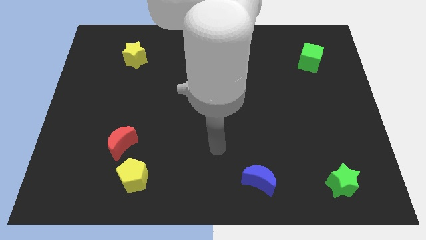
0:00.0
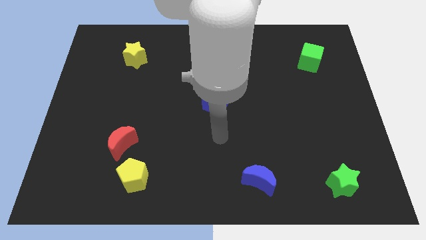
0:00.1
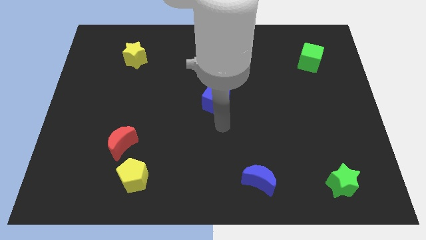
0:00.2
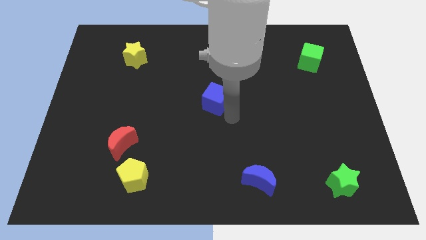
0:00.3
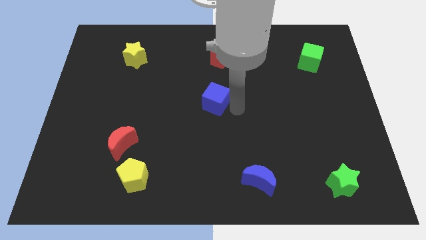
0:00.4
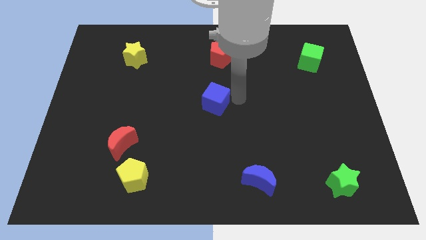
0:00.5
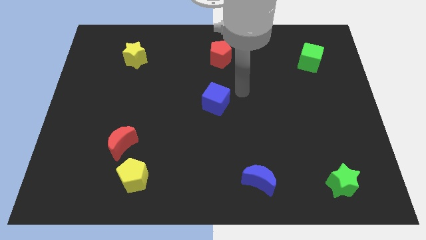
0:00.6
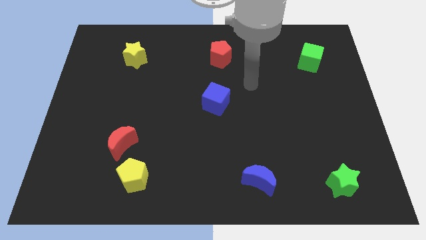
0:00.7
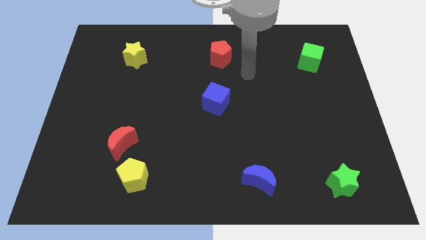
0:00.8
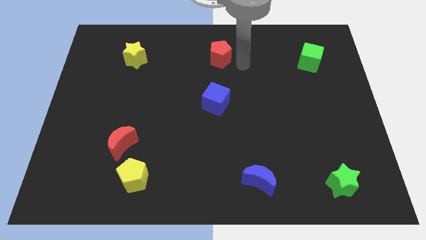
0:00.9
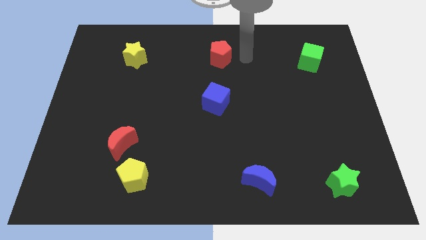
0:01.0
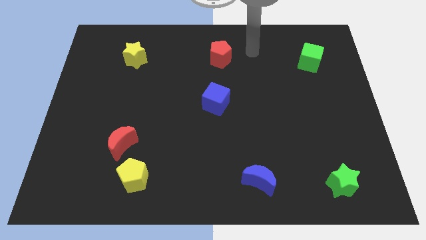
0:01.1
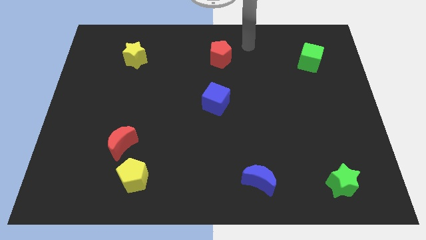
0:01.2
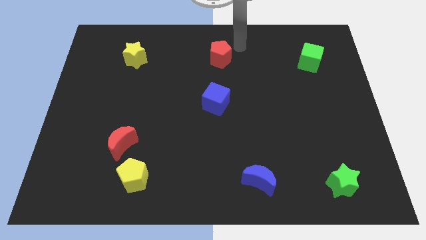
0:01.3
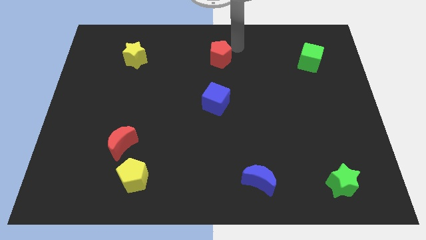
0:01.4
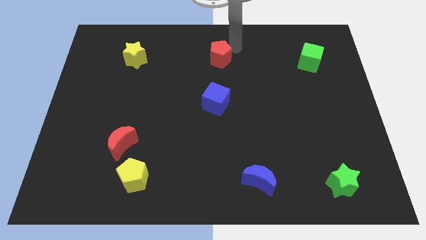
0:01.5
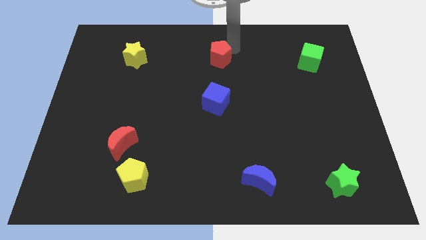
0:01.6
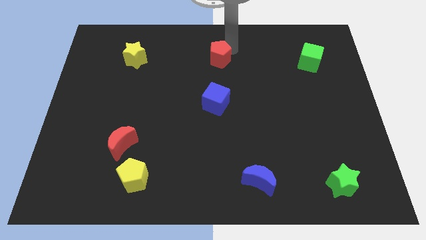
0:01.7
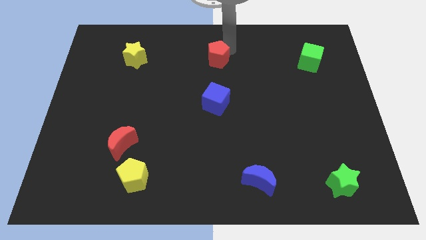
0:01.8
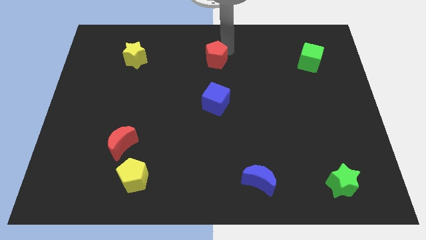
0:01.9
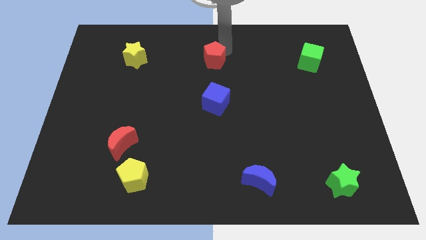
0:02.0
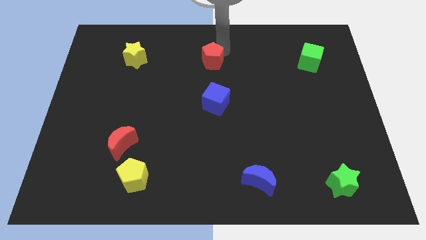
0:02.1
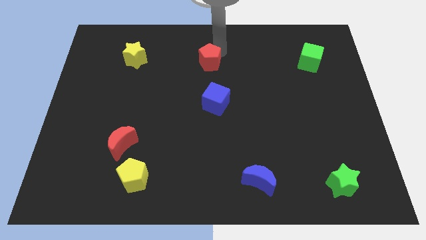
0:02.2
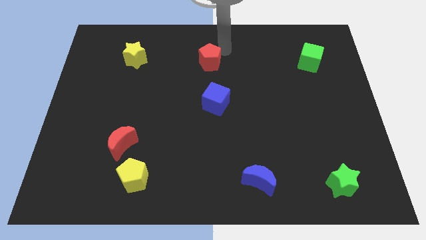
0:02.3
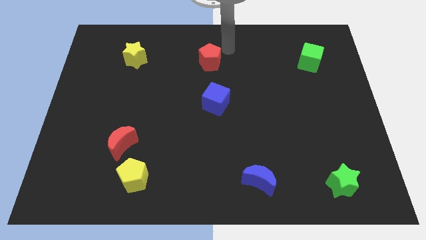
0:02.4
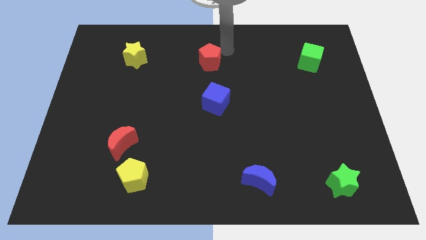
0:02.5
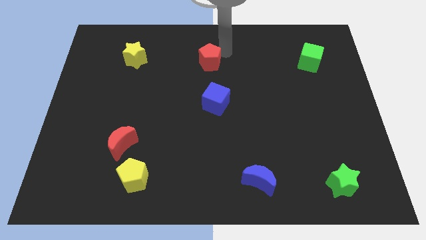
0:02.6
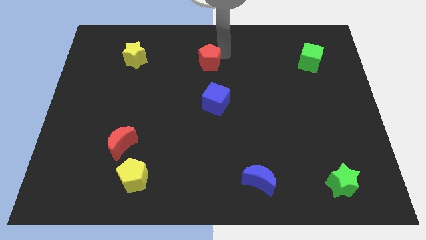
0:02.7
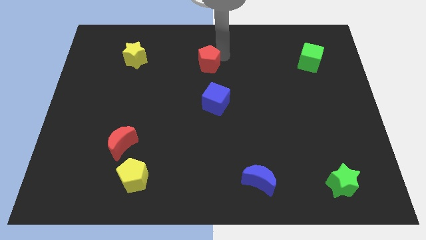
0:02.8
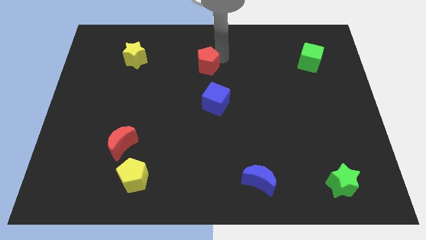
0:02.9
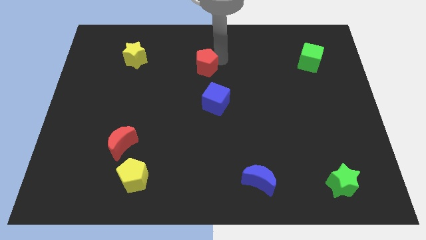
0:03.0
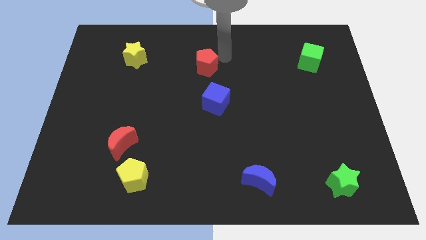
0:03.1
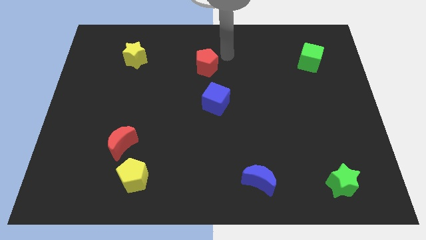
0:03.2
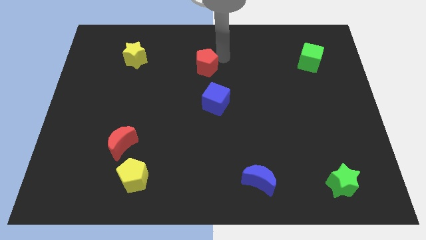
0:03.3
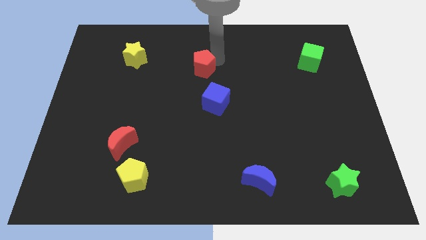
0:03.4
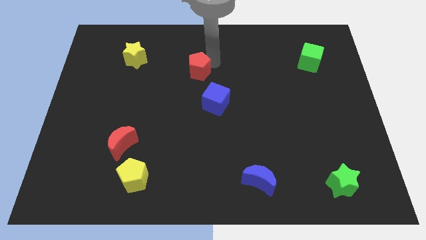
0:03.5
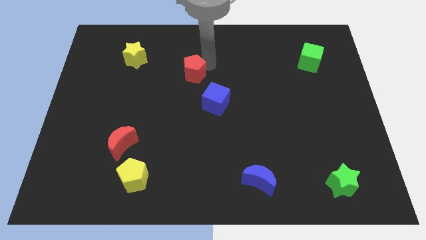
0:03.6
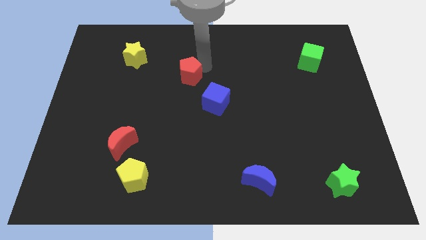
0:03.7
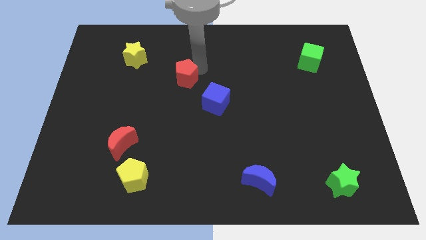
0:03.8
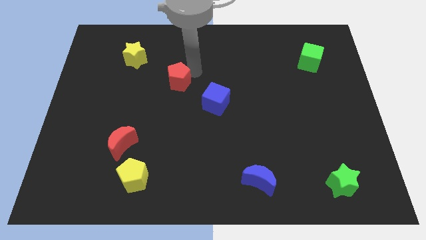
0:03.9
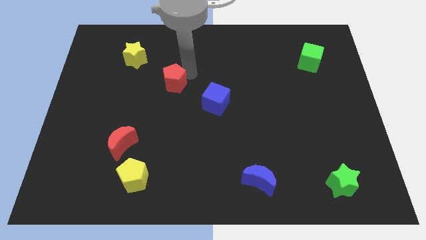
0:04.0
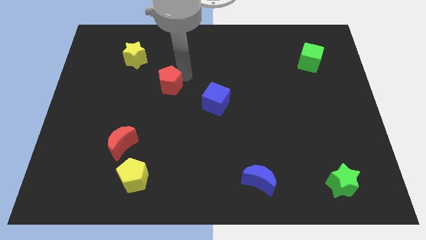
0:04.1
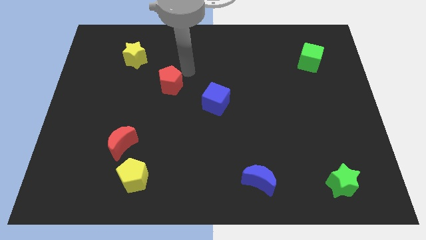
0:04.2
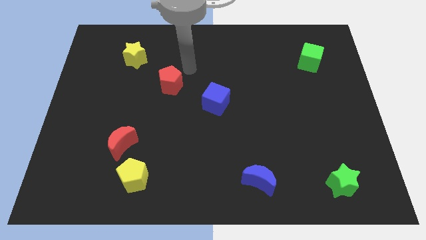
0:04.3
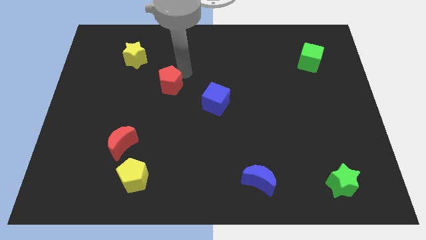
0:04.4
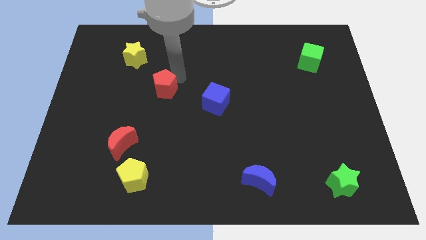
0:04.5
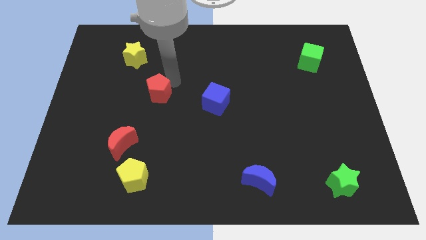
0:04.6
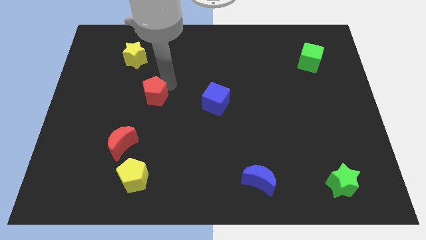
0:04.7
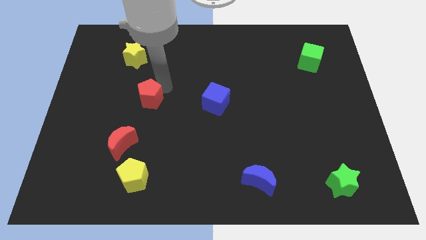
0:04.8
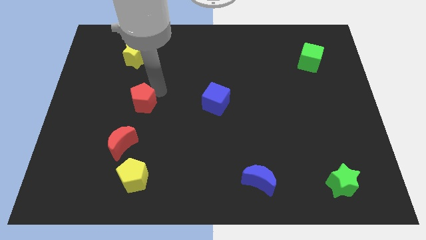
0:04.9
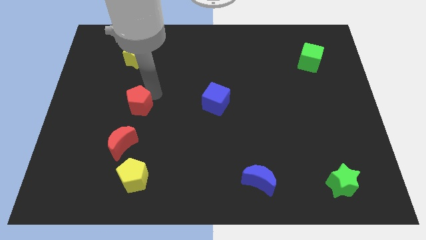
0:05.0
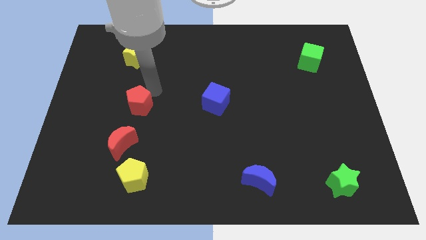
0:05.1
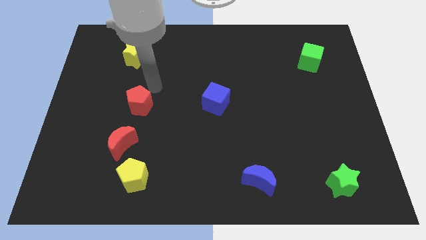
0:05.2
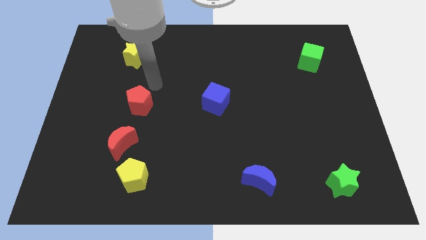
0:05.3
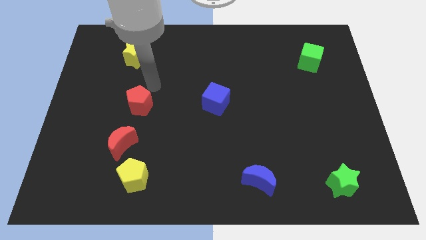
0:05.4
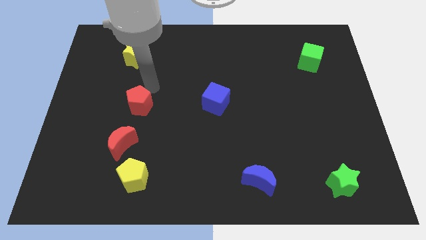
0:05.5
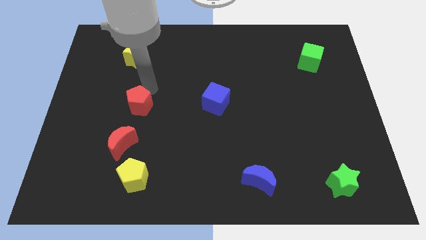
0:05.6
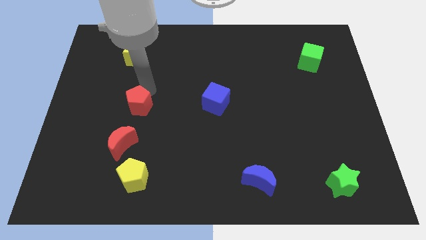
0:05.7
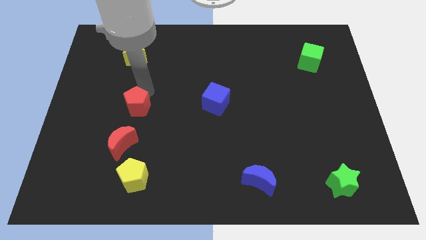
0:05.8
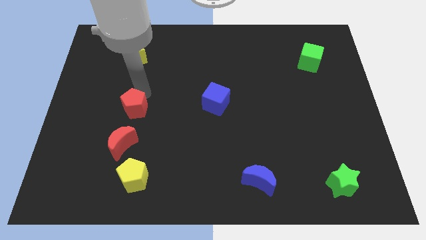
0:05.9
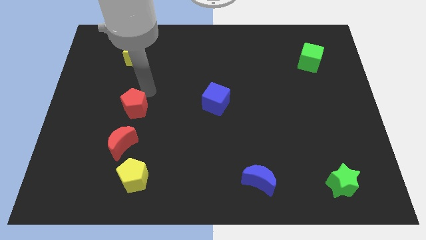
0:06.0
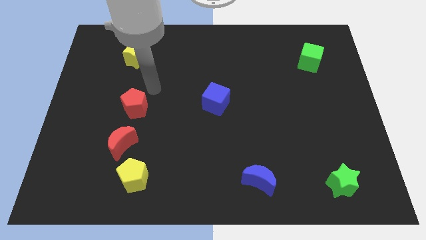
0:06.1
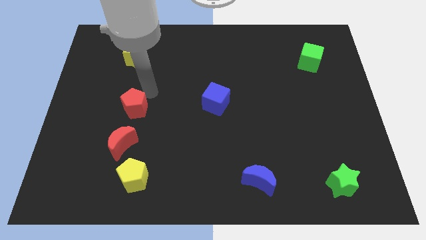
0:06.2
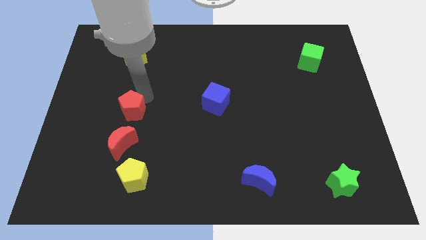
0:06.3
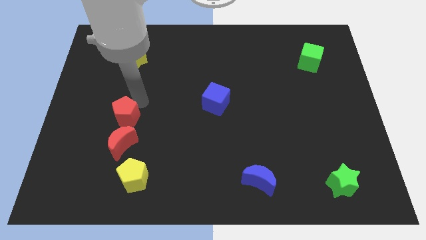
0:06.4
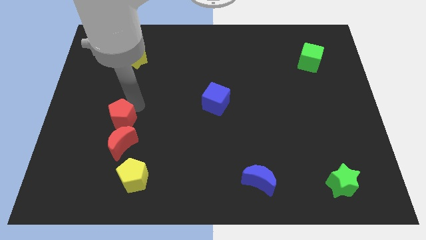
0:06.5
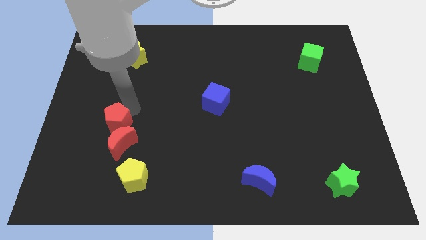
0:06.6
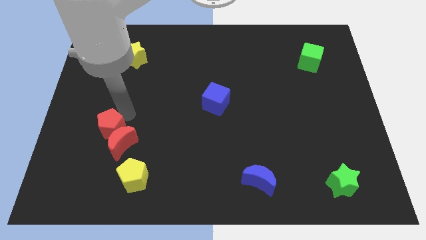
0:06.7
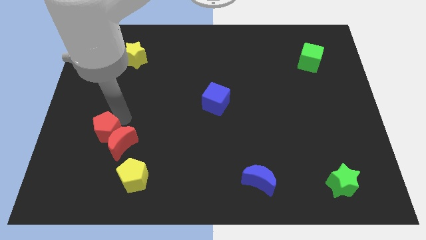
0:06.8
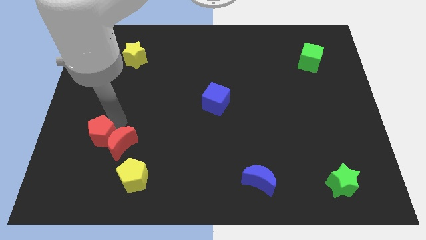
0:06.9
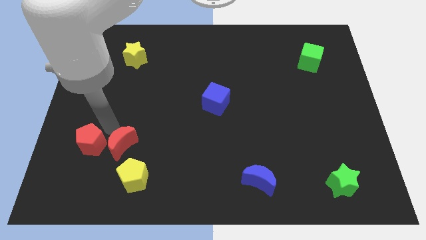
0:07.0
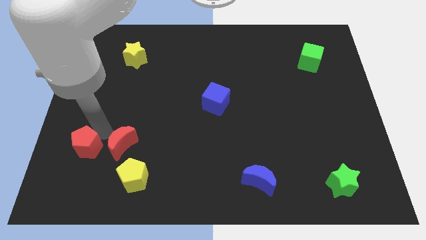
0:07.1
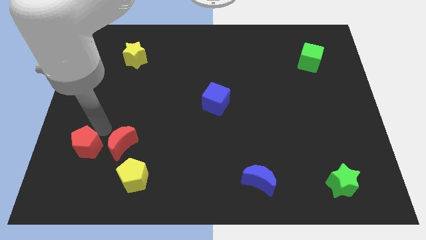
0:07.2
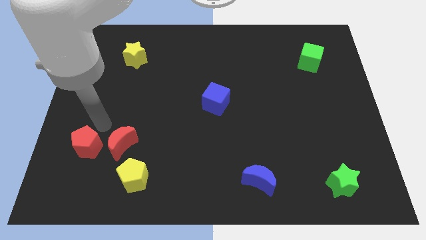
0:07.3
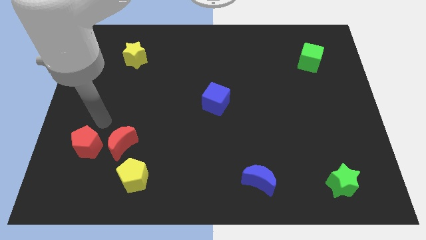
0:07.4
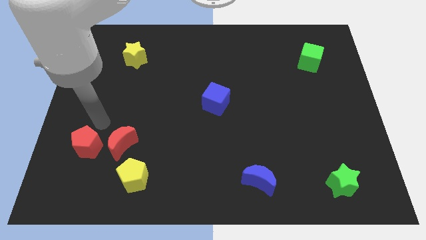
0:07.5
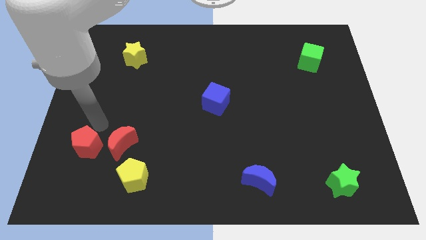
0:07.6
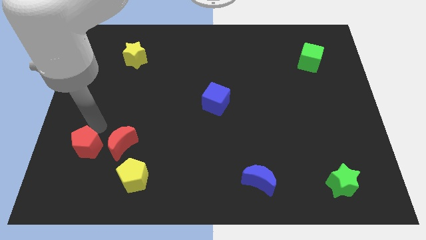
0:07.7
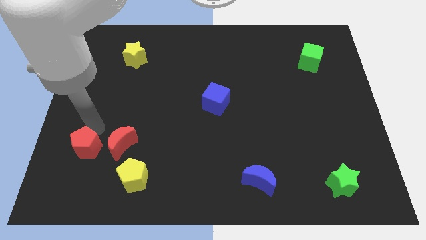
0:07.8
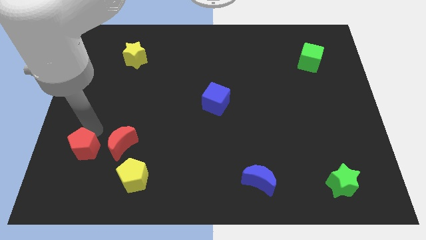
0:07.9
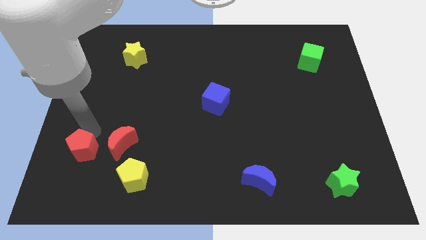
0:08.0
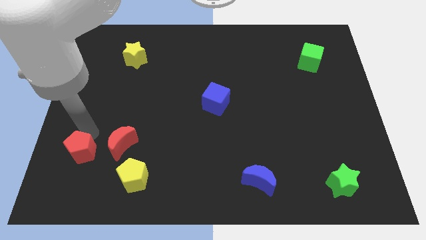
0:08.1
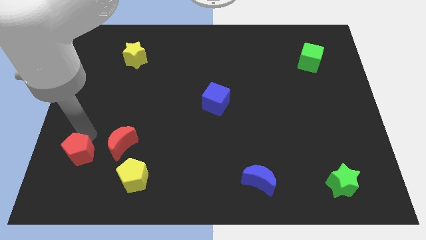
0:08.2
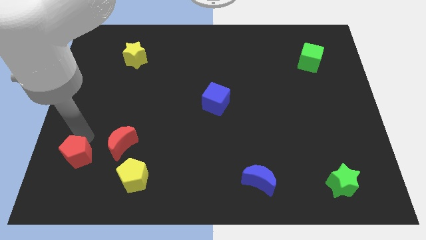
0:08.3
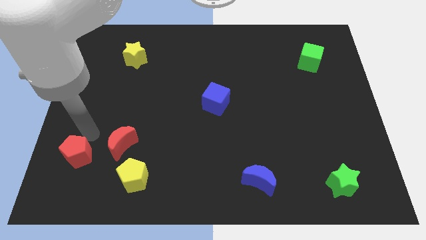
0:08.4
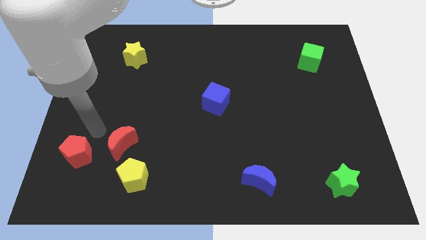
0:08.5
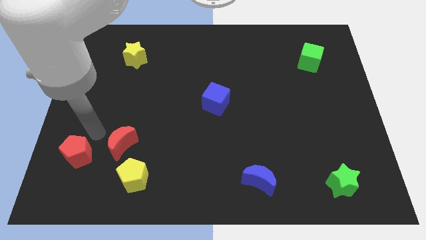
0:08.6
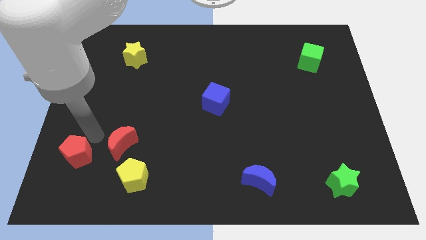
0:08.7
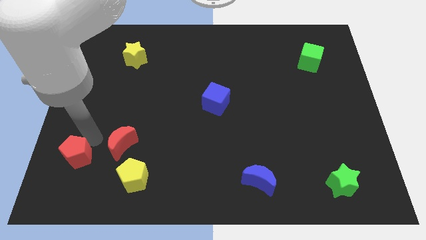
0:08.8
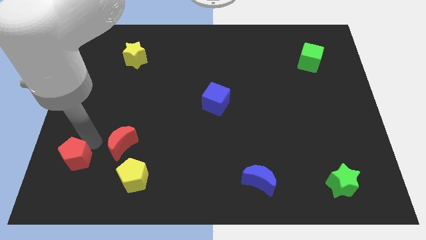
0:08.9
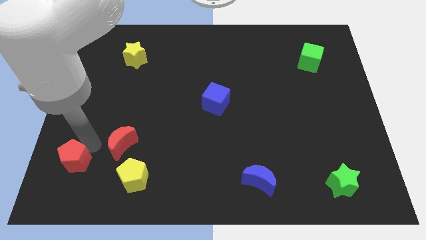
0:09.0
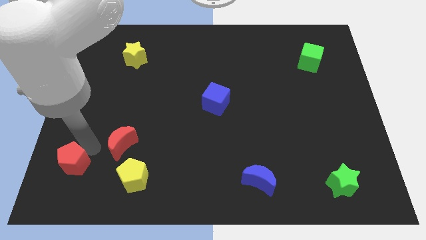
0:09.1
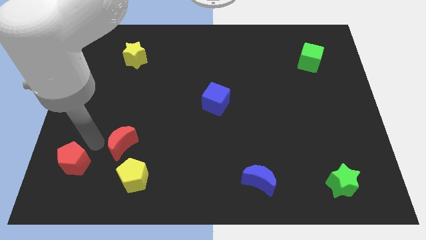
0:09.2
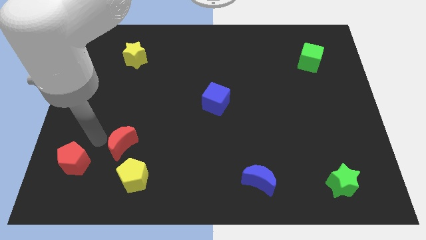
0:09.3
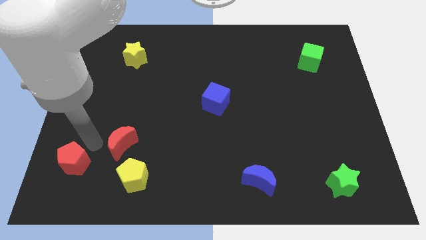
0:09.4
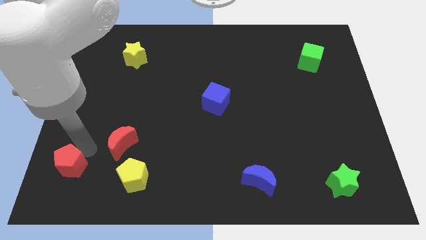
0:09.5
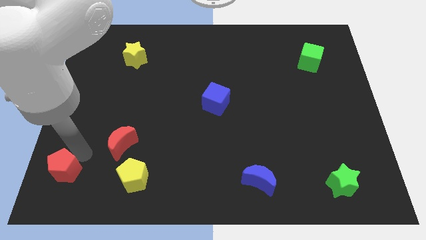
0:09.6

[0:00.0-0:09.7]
slide the red pentagon to the bottom left
